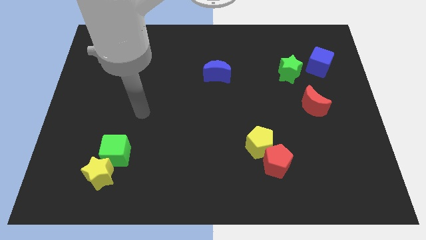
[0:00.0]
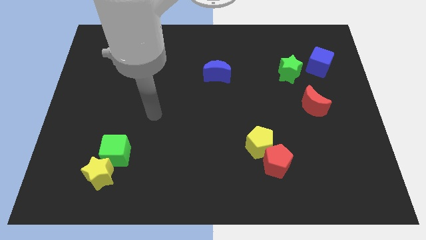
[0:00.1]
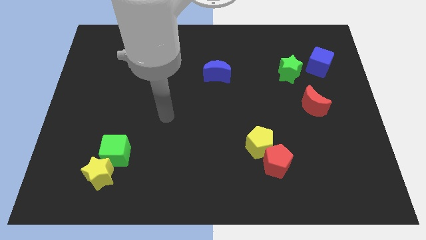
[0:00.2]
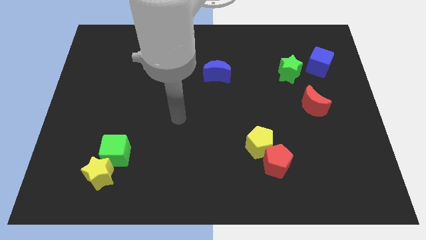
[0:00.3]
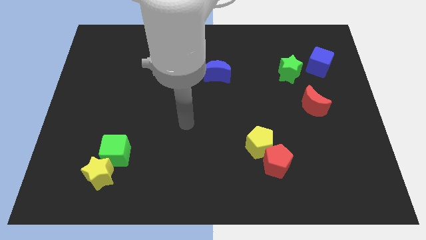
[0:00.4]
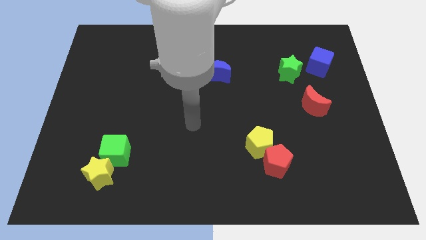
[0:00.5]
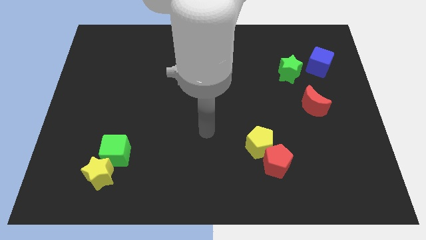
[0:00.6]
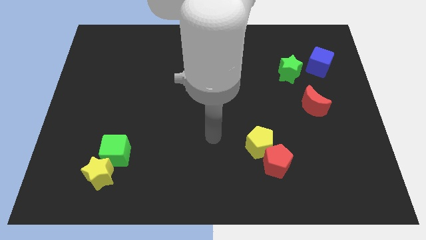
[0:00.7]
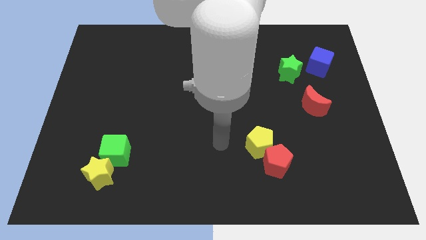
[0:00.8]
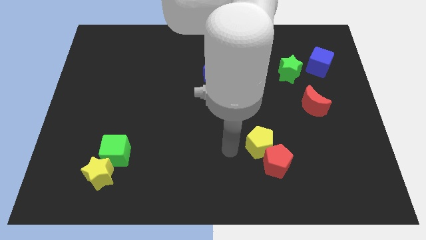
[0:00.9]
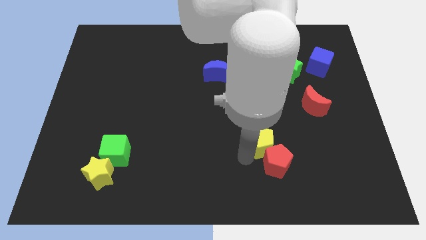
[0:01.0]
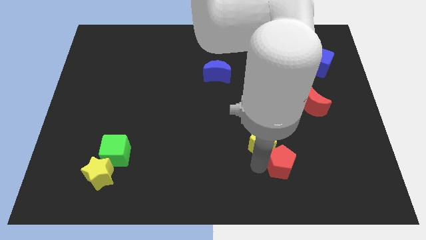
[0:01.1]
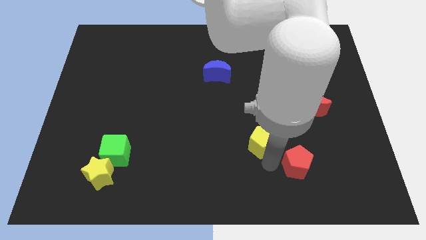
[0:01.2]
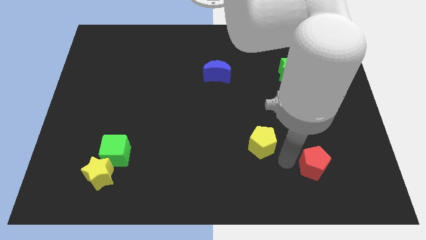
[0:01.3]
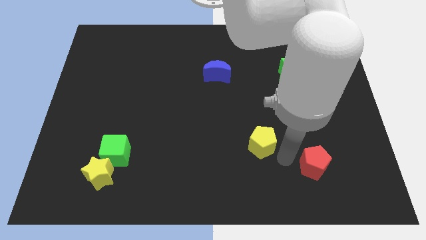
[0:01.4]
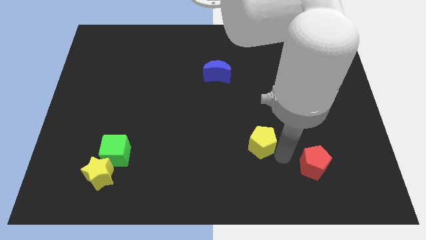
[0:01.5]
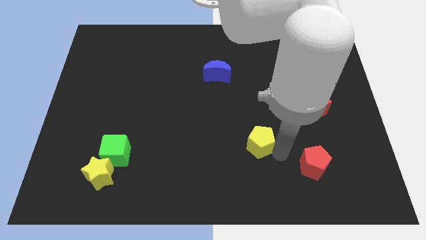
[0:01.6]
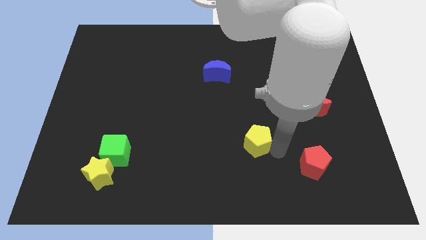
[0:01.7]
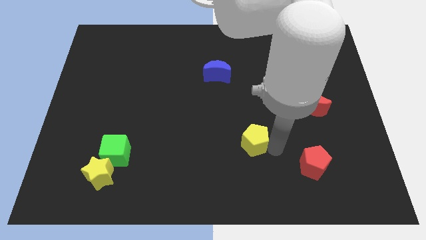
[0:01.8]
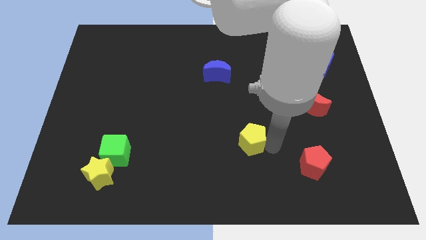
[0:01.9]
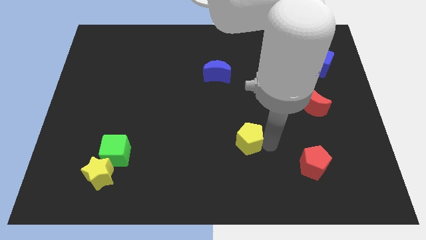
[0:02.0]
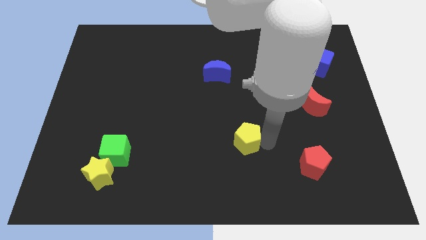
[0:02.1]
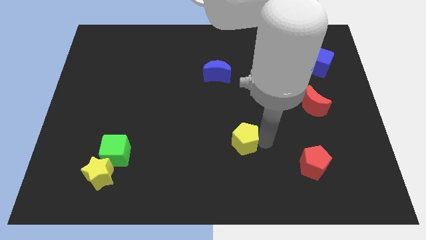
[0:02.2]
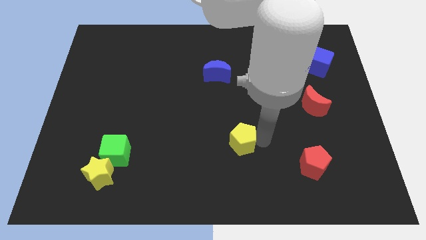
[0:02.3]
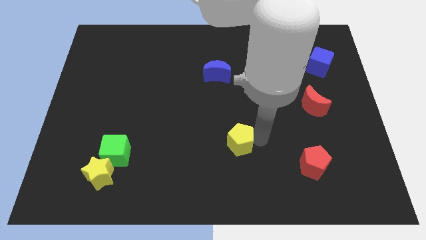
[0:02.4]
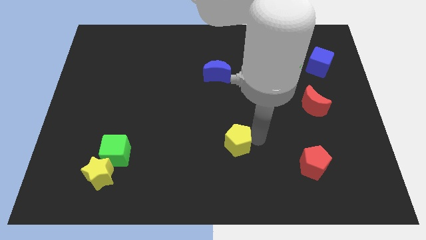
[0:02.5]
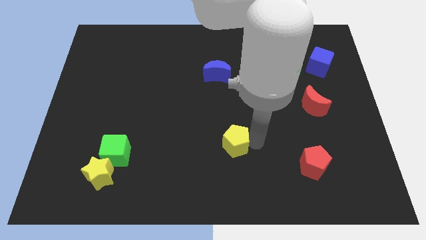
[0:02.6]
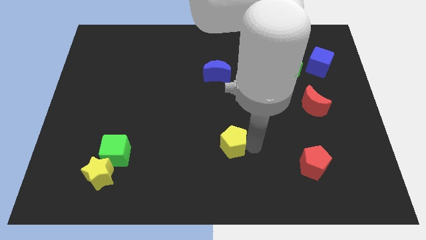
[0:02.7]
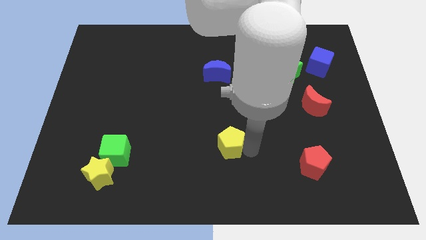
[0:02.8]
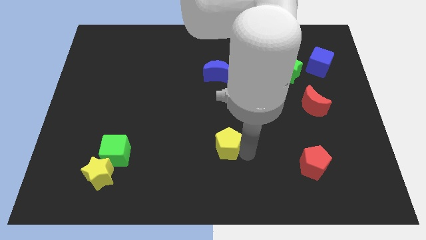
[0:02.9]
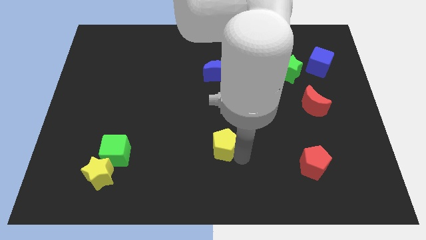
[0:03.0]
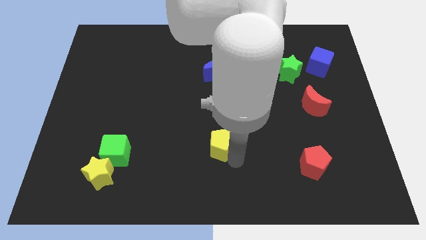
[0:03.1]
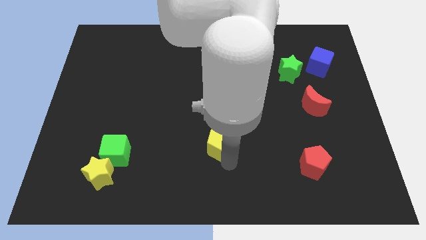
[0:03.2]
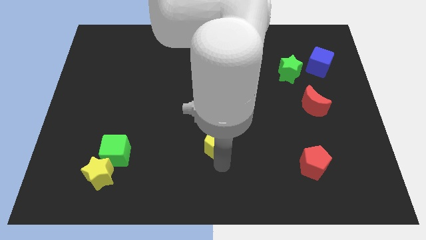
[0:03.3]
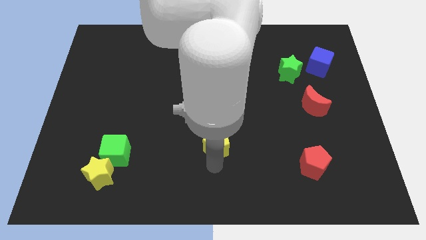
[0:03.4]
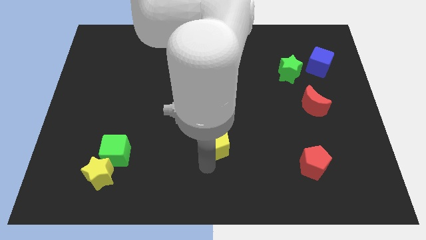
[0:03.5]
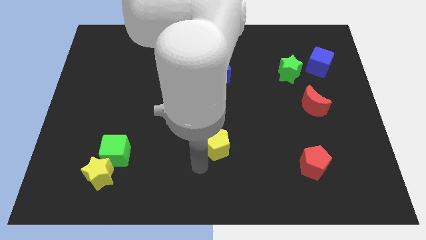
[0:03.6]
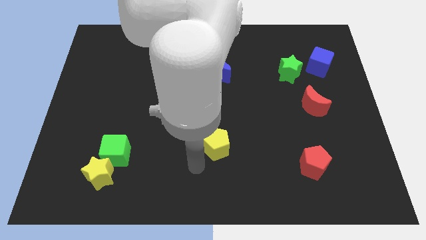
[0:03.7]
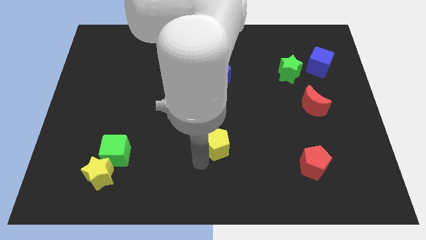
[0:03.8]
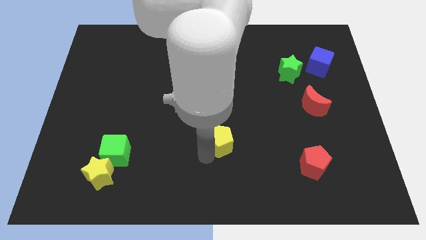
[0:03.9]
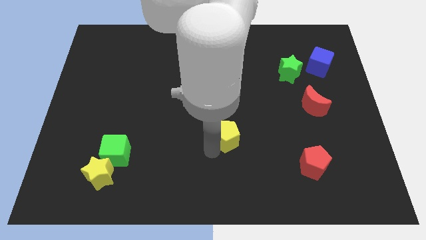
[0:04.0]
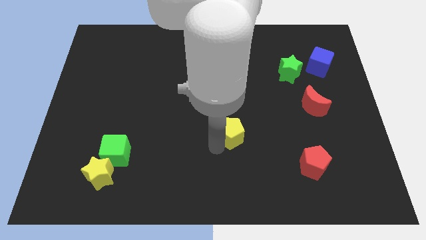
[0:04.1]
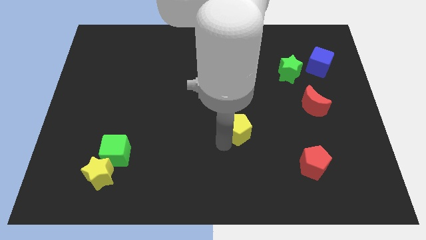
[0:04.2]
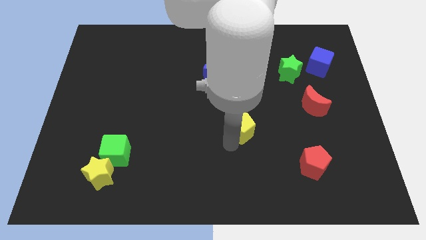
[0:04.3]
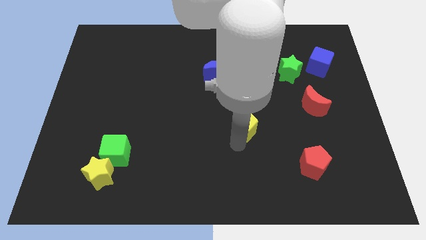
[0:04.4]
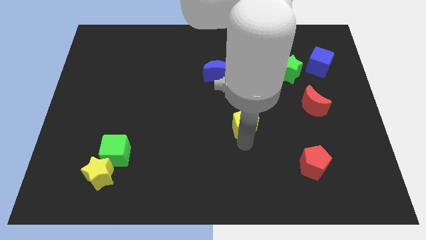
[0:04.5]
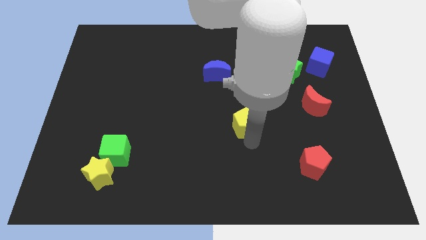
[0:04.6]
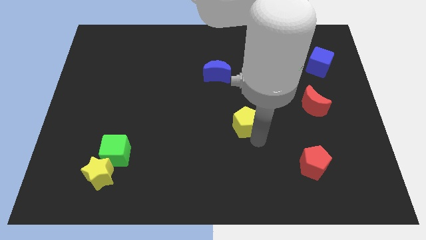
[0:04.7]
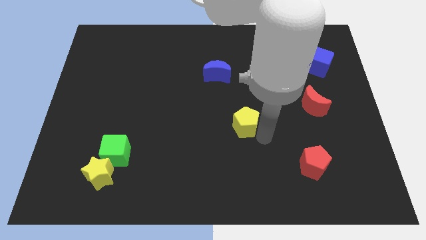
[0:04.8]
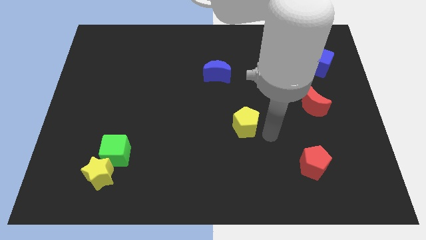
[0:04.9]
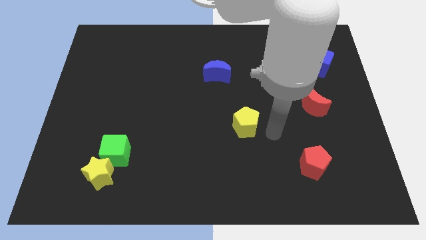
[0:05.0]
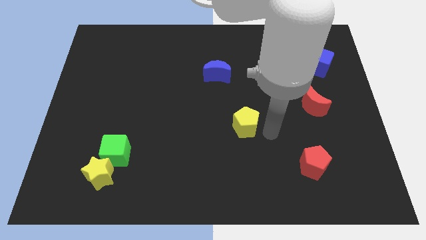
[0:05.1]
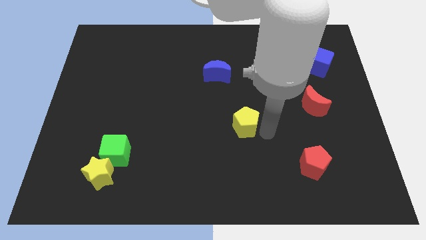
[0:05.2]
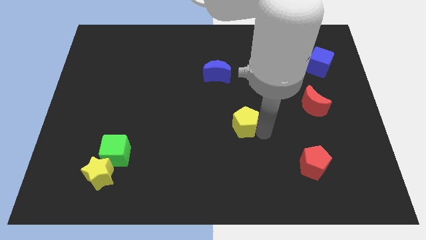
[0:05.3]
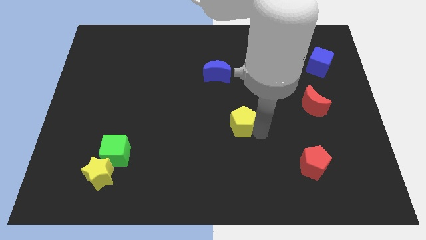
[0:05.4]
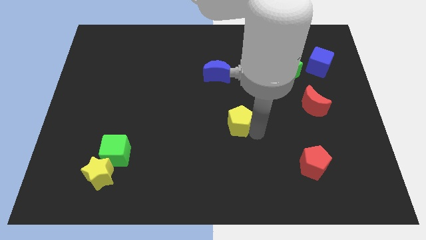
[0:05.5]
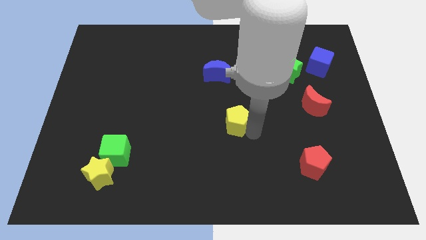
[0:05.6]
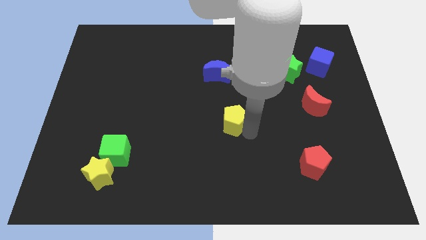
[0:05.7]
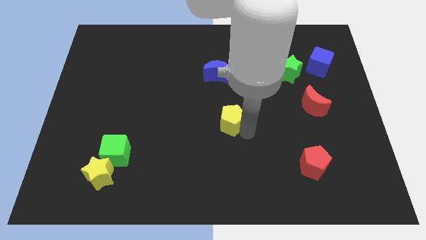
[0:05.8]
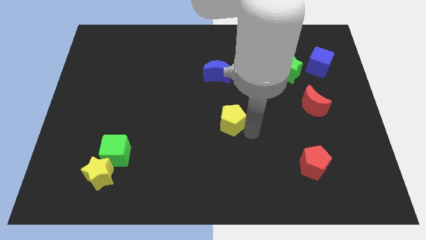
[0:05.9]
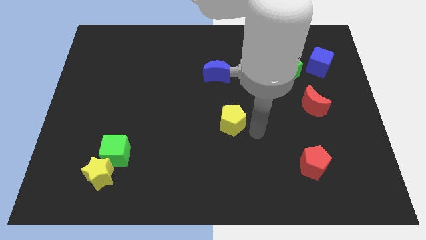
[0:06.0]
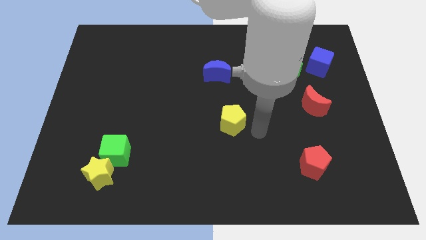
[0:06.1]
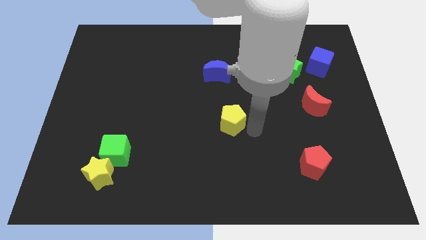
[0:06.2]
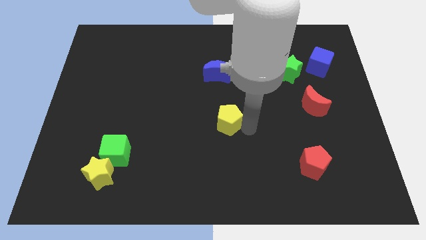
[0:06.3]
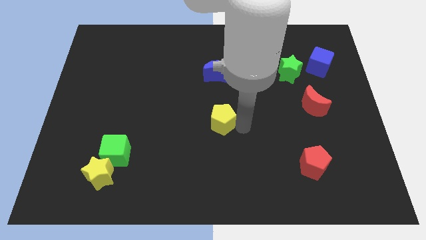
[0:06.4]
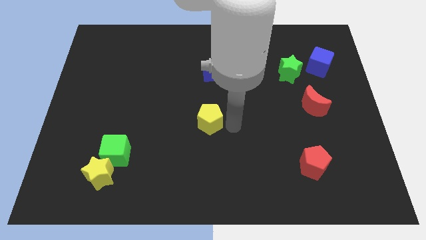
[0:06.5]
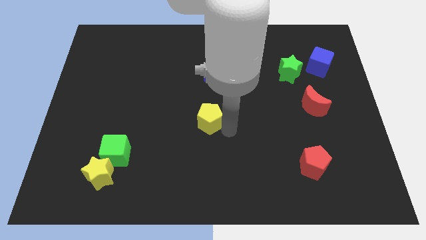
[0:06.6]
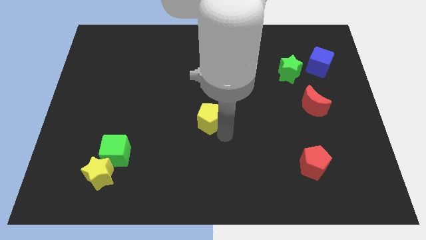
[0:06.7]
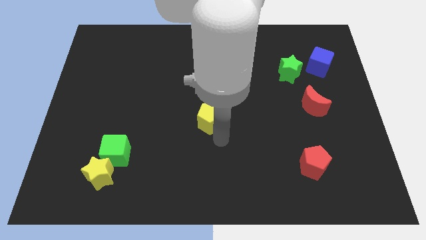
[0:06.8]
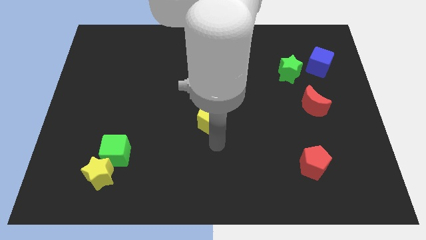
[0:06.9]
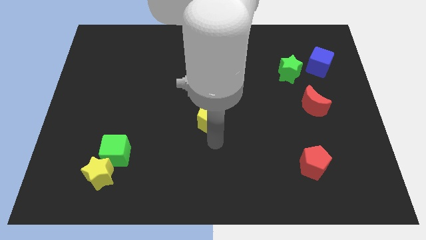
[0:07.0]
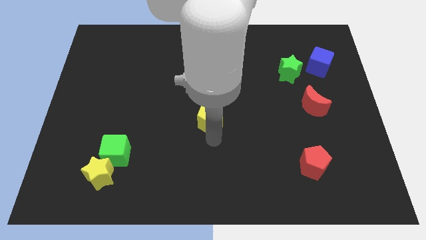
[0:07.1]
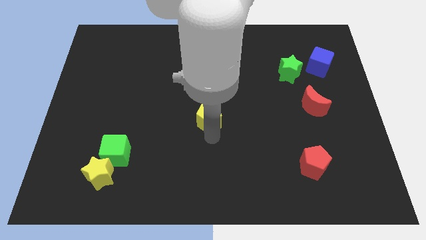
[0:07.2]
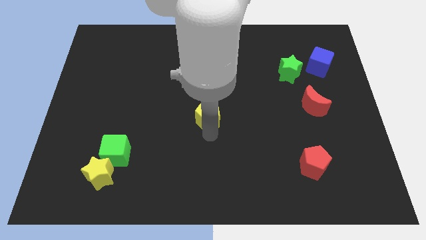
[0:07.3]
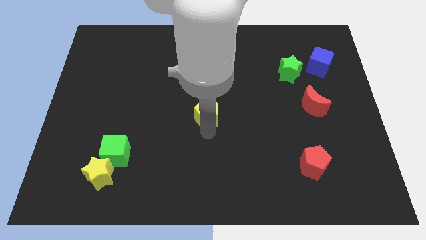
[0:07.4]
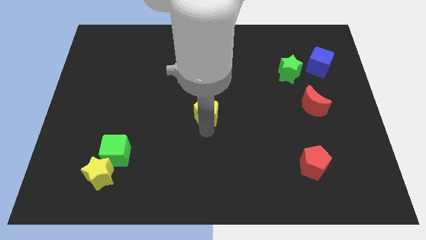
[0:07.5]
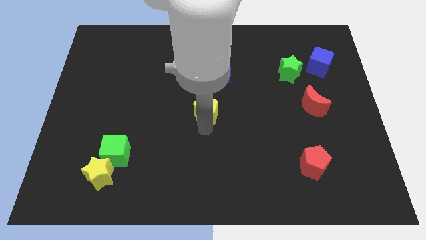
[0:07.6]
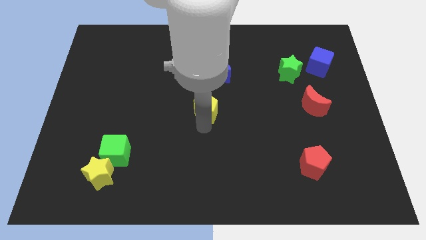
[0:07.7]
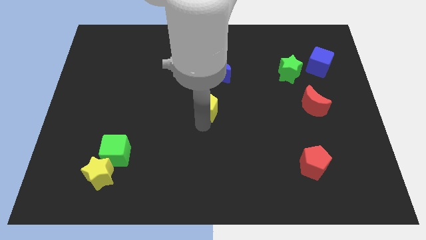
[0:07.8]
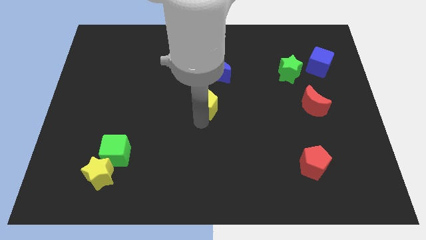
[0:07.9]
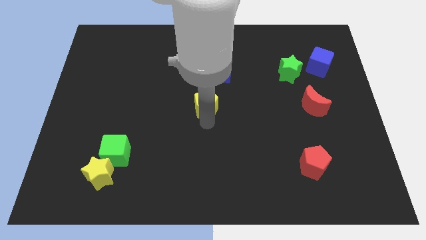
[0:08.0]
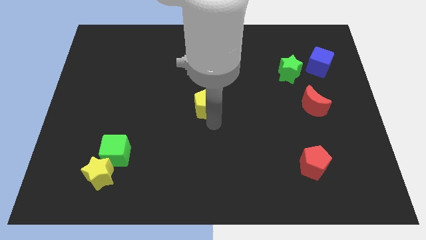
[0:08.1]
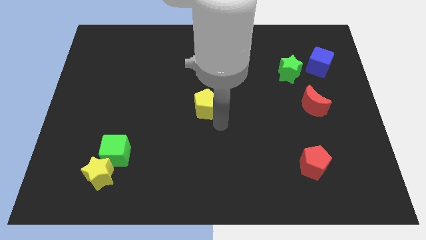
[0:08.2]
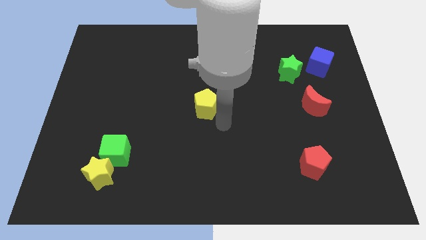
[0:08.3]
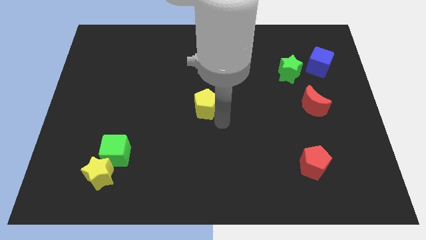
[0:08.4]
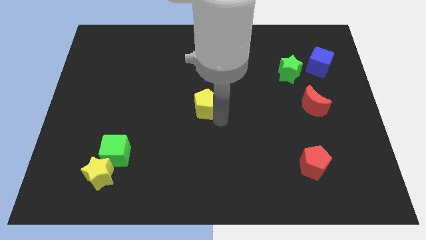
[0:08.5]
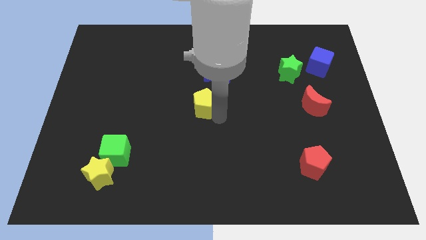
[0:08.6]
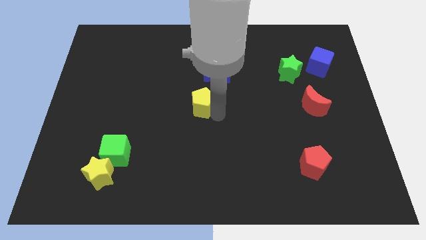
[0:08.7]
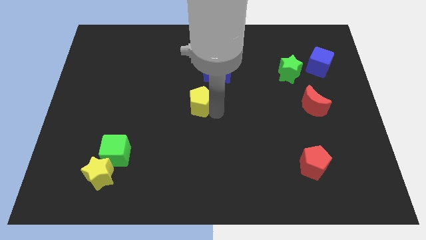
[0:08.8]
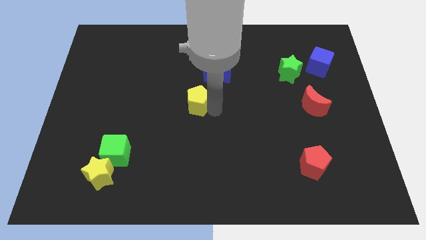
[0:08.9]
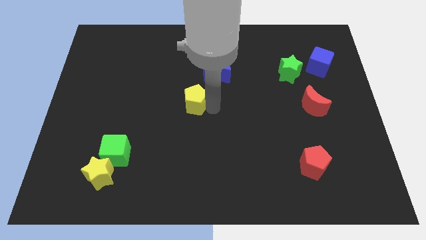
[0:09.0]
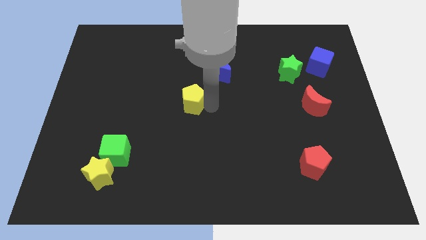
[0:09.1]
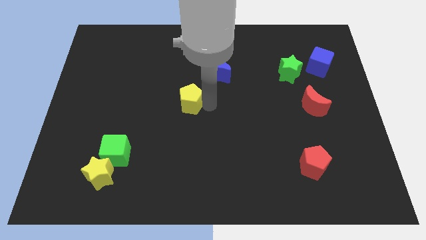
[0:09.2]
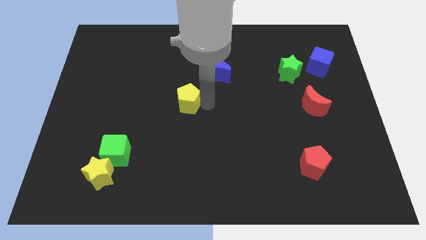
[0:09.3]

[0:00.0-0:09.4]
push the yellow pentagon up and to the left diagonally
